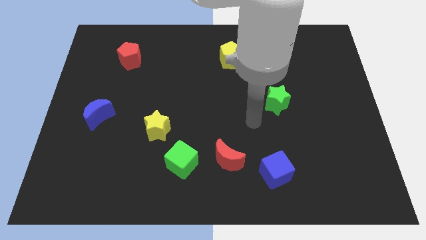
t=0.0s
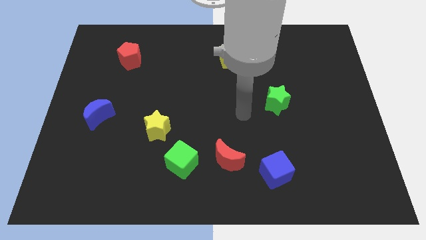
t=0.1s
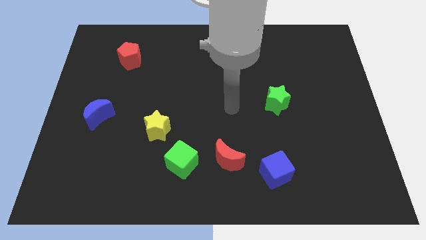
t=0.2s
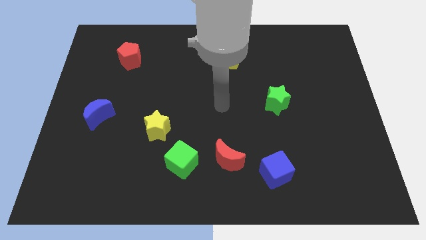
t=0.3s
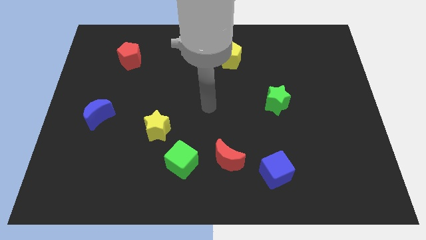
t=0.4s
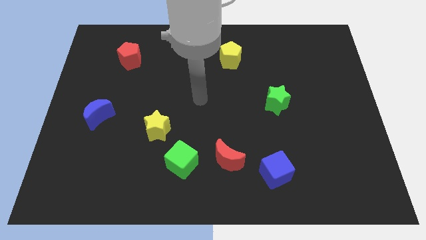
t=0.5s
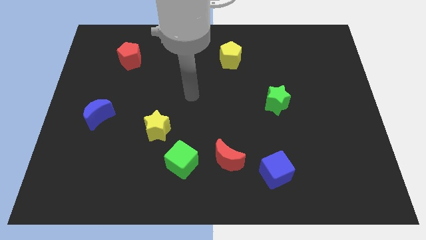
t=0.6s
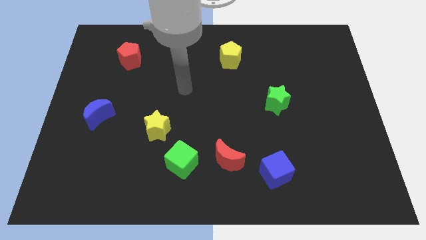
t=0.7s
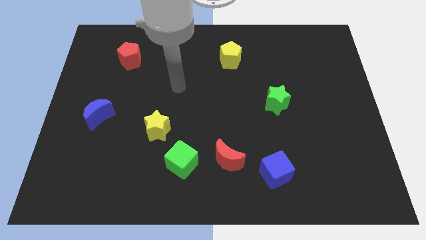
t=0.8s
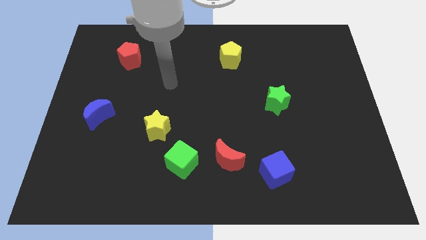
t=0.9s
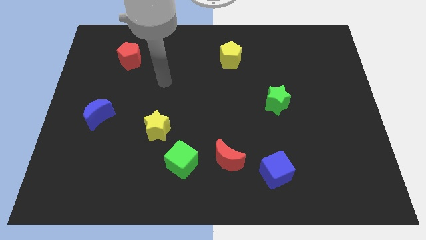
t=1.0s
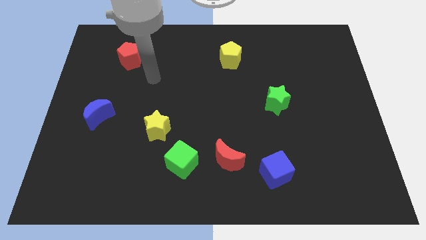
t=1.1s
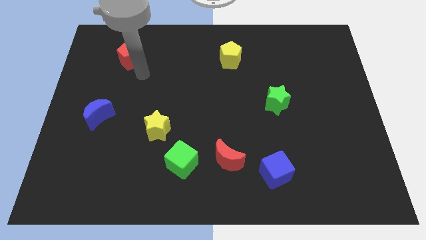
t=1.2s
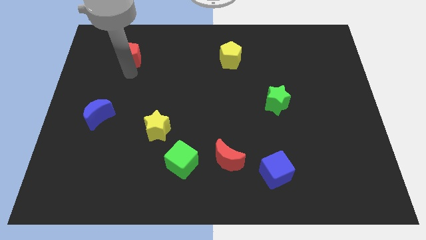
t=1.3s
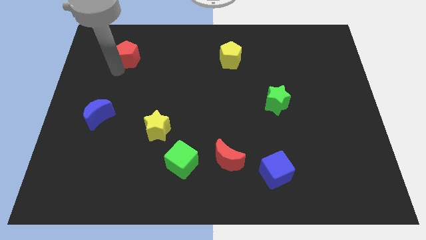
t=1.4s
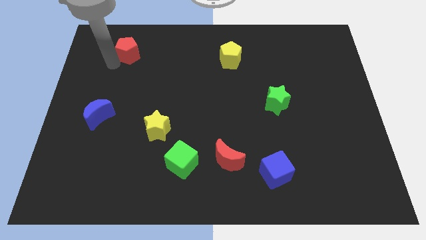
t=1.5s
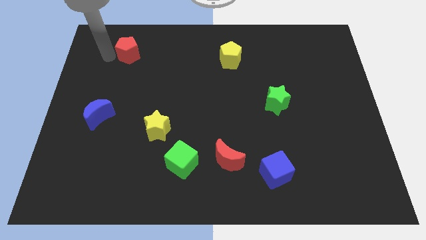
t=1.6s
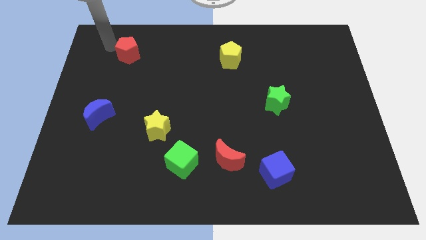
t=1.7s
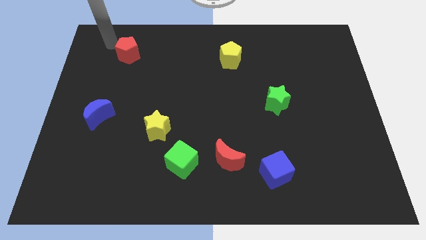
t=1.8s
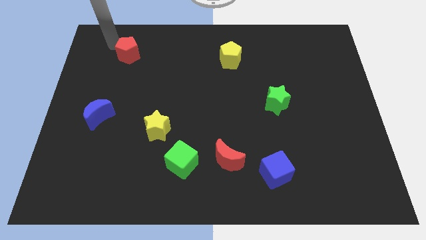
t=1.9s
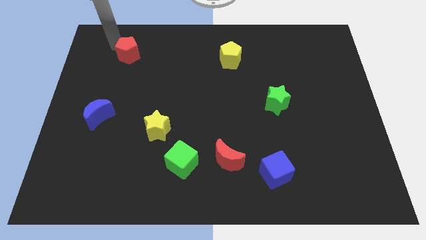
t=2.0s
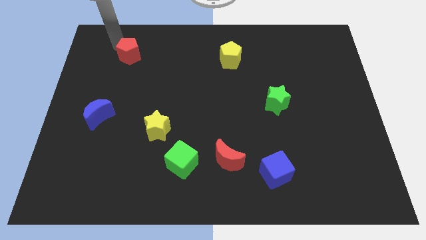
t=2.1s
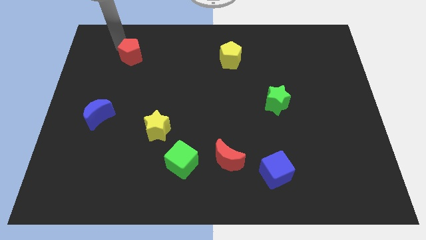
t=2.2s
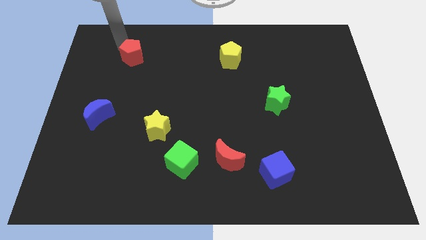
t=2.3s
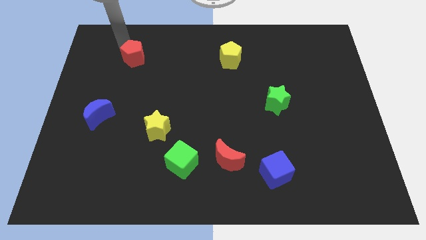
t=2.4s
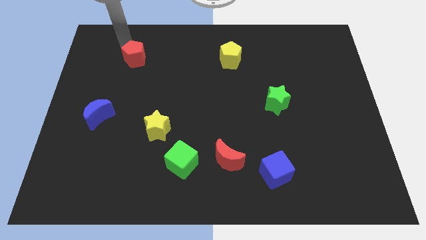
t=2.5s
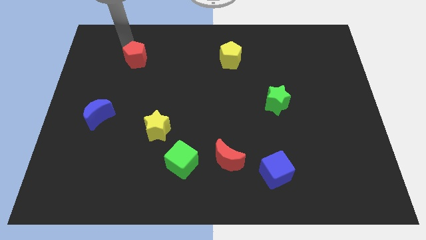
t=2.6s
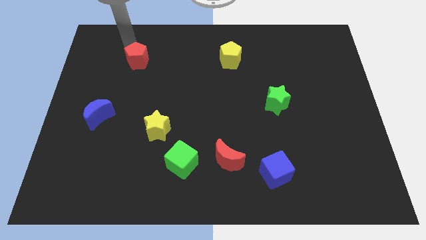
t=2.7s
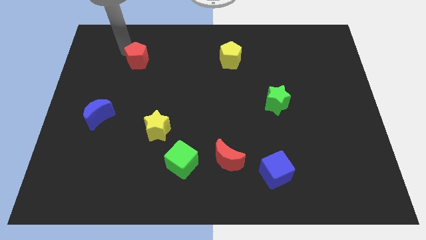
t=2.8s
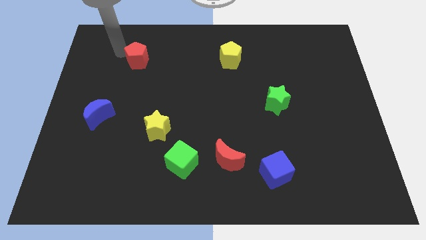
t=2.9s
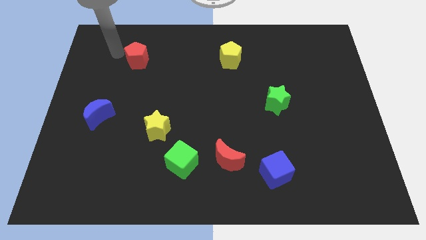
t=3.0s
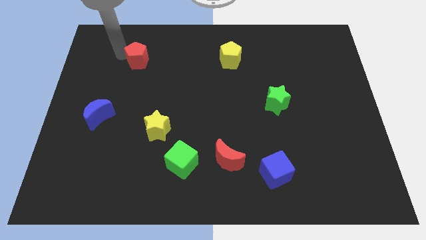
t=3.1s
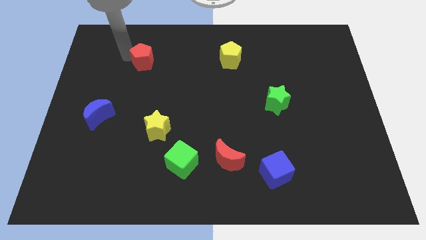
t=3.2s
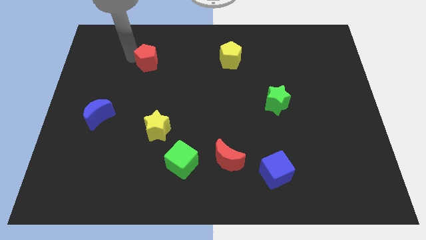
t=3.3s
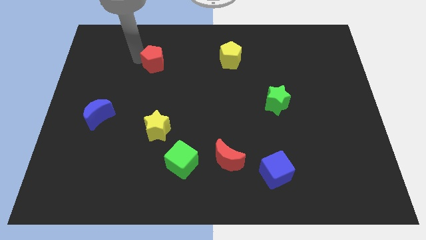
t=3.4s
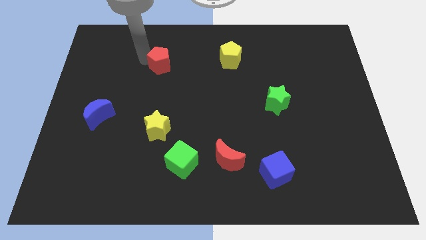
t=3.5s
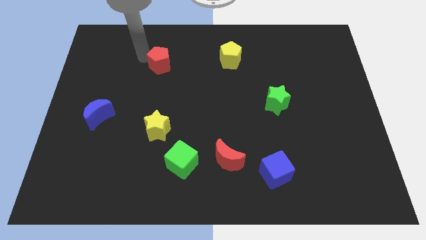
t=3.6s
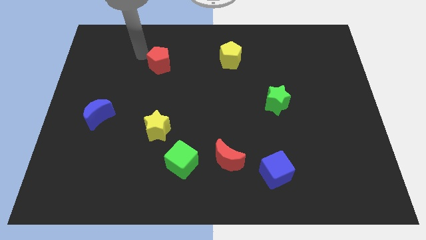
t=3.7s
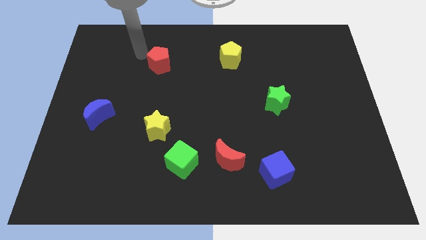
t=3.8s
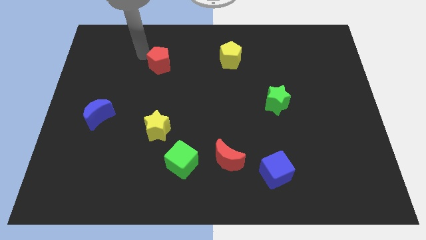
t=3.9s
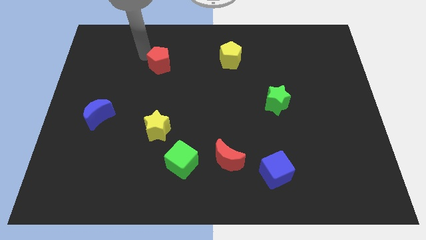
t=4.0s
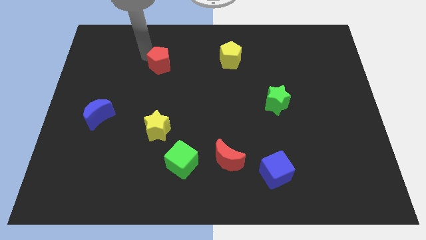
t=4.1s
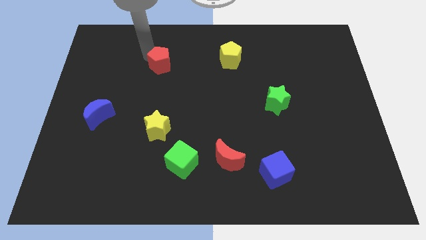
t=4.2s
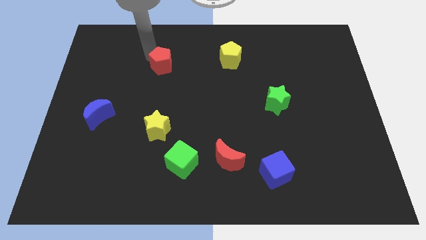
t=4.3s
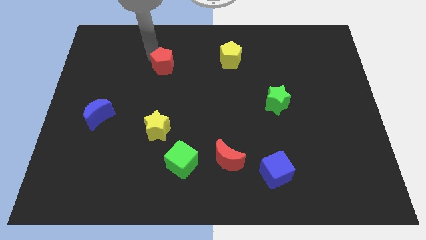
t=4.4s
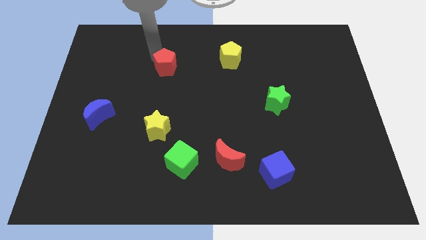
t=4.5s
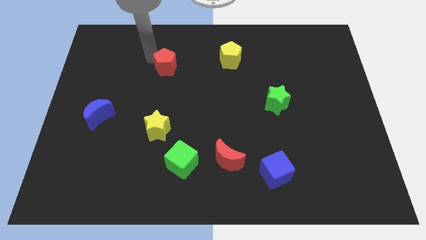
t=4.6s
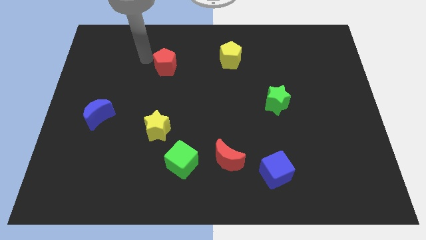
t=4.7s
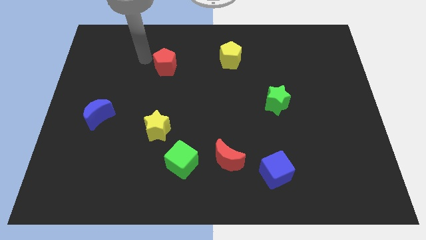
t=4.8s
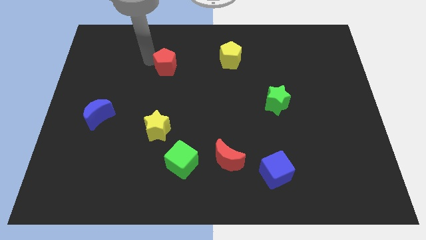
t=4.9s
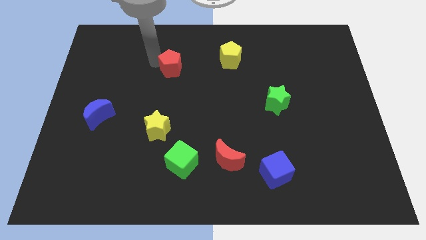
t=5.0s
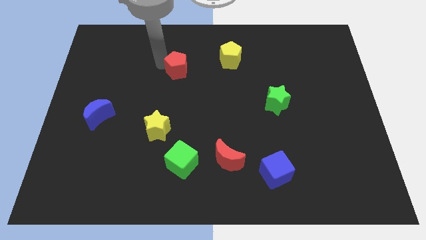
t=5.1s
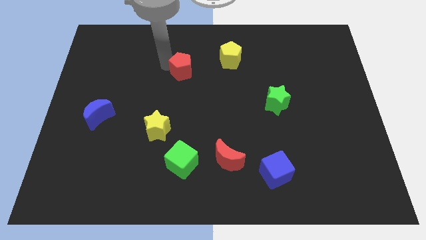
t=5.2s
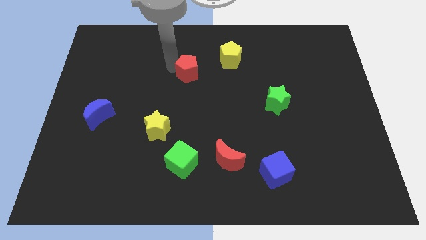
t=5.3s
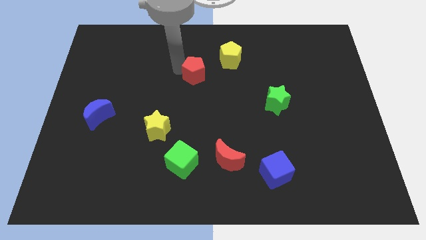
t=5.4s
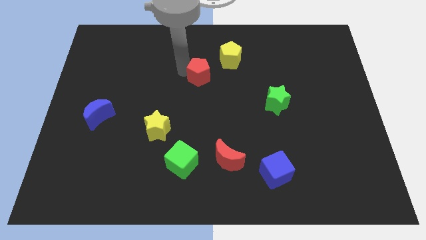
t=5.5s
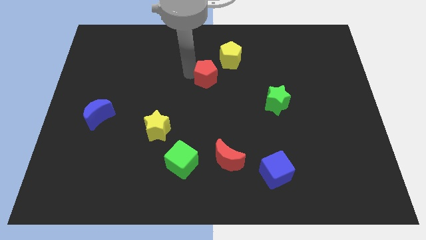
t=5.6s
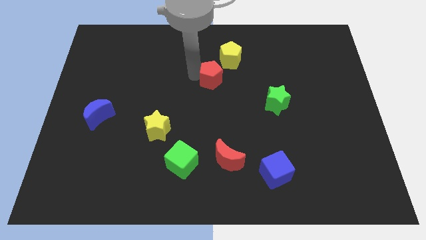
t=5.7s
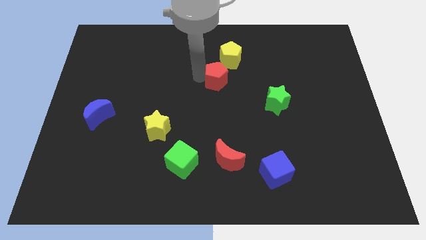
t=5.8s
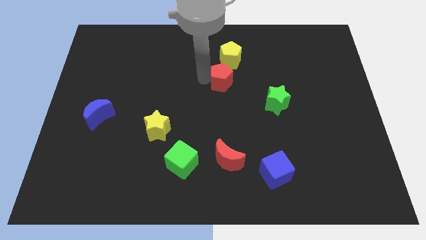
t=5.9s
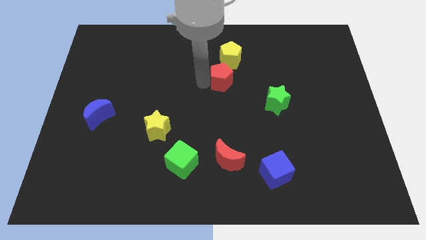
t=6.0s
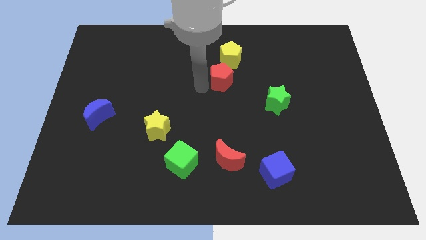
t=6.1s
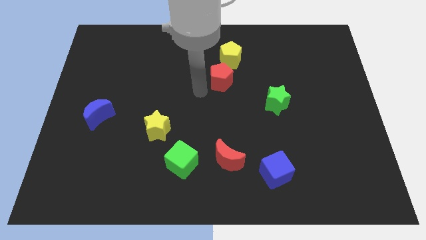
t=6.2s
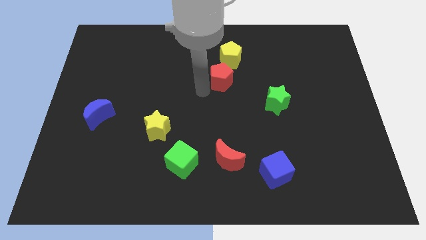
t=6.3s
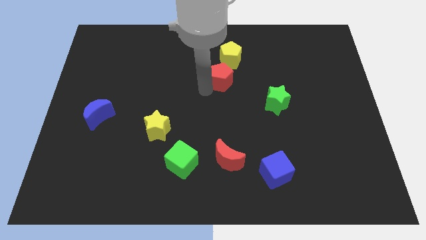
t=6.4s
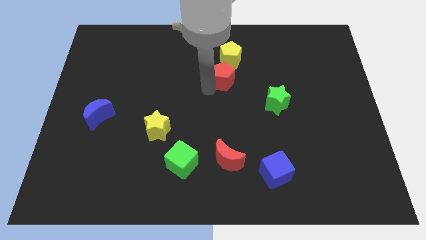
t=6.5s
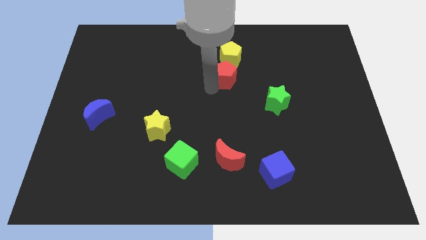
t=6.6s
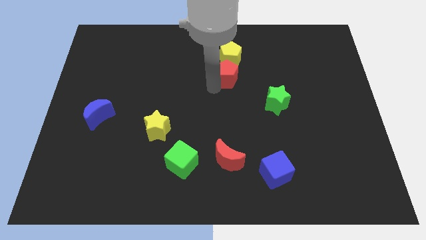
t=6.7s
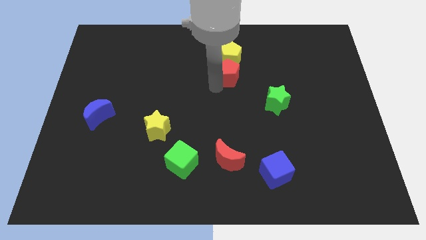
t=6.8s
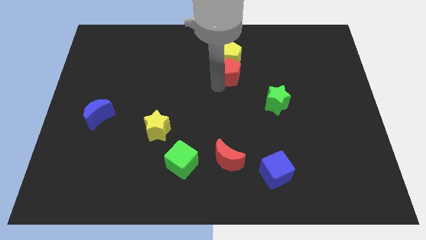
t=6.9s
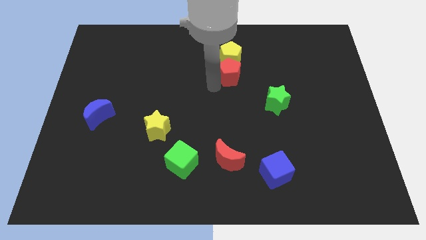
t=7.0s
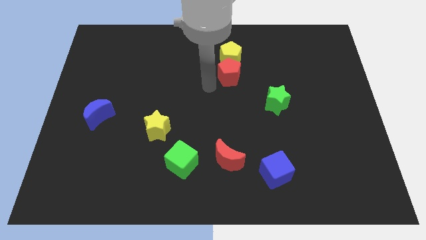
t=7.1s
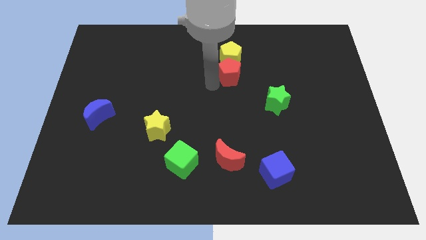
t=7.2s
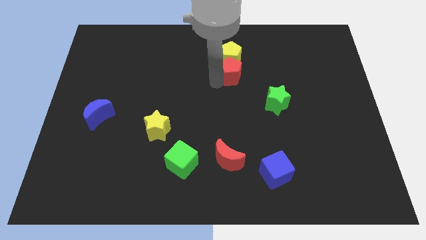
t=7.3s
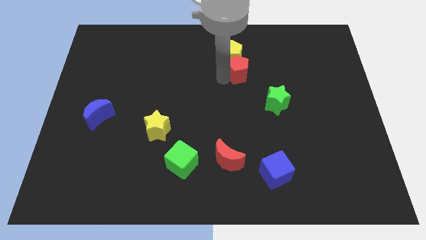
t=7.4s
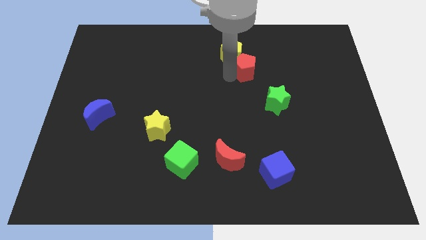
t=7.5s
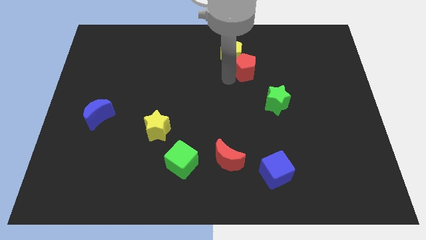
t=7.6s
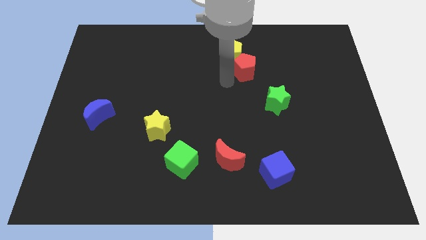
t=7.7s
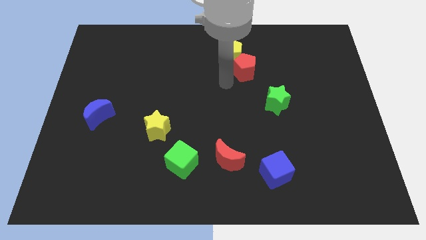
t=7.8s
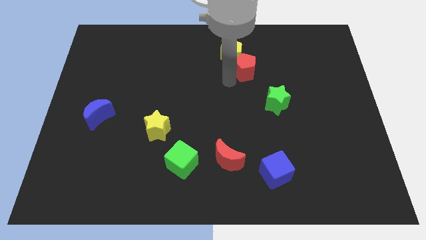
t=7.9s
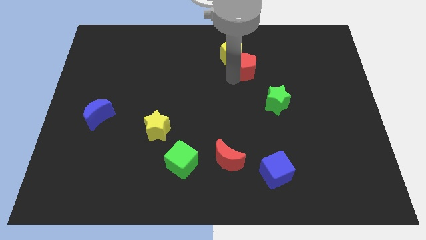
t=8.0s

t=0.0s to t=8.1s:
put the red pentagon just right of the yellow pentagon
